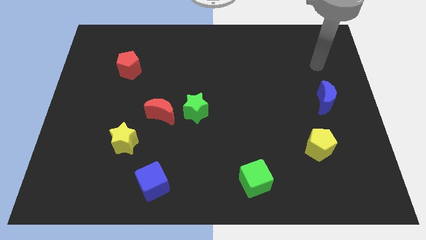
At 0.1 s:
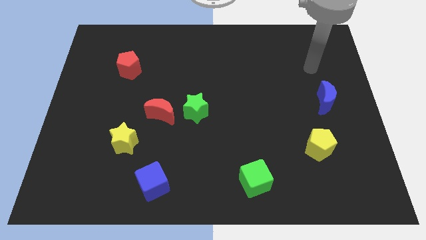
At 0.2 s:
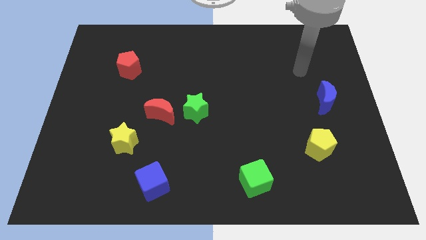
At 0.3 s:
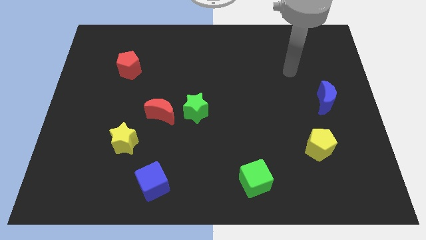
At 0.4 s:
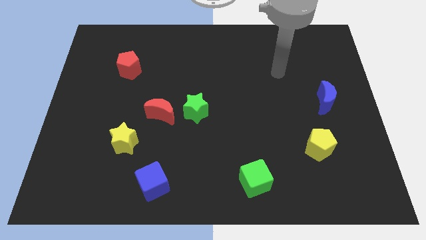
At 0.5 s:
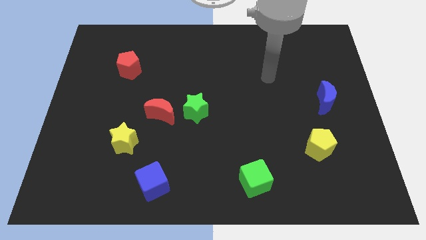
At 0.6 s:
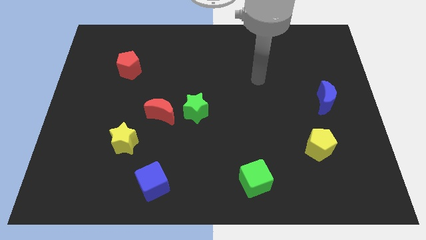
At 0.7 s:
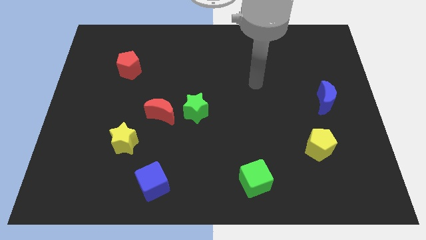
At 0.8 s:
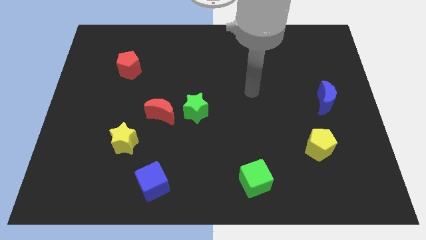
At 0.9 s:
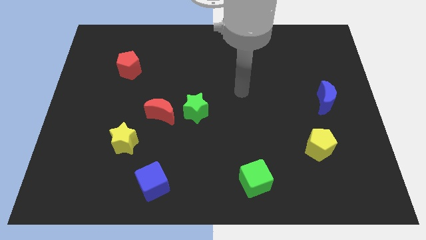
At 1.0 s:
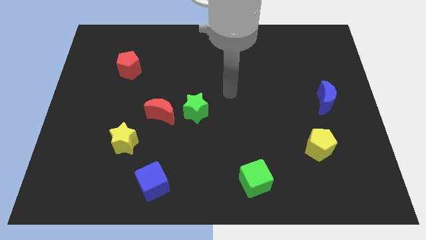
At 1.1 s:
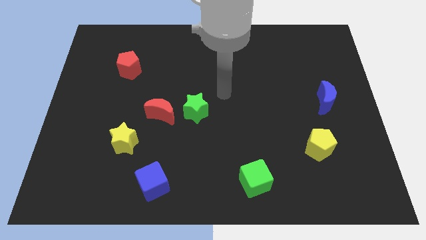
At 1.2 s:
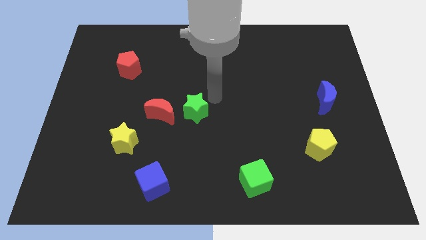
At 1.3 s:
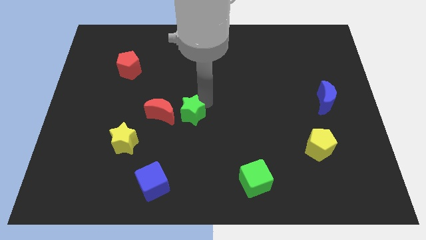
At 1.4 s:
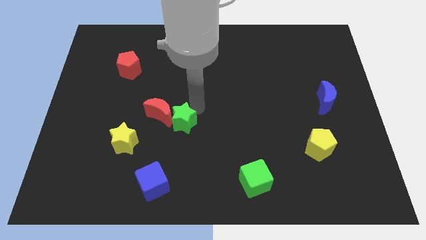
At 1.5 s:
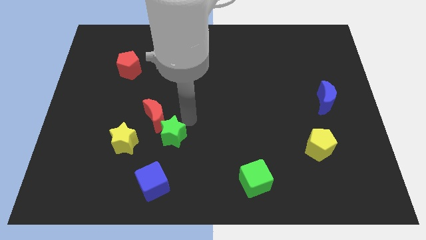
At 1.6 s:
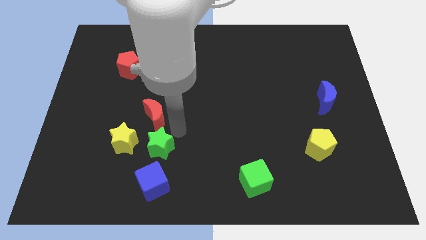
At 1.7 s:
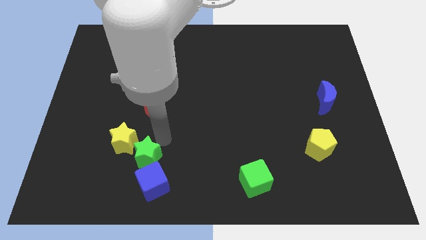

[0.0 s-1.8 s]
move the red moon away from the green star

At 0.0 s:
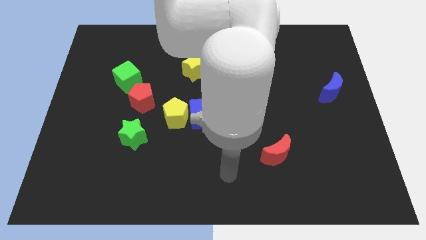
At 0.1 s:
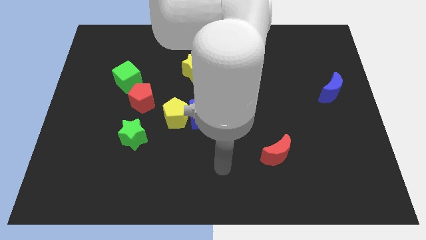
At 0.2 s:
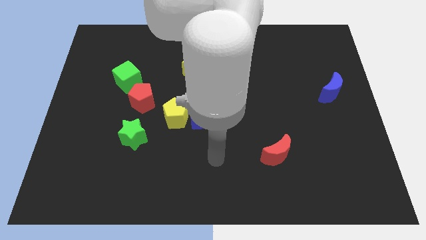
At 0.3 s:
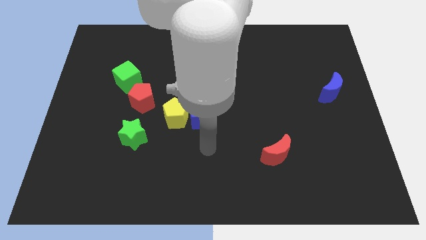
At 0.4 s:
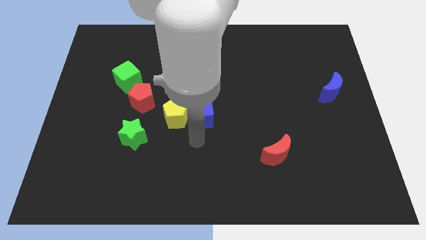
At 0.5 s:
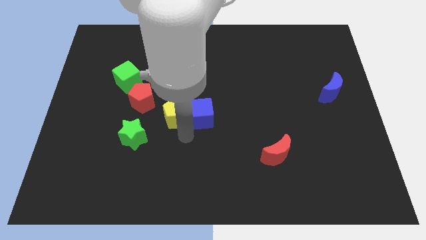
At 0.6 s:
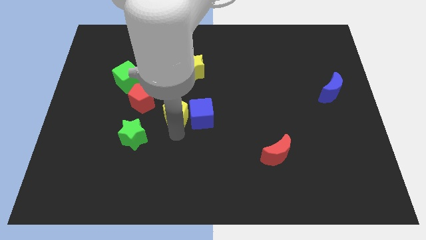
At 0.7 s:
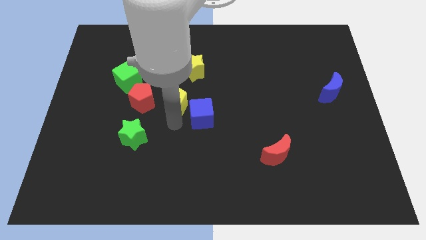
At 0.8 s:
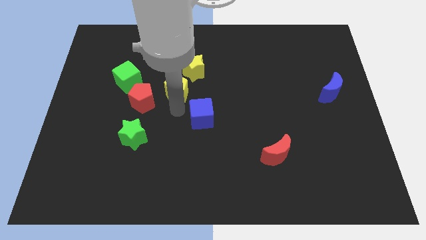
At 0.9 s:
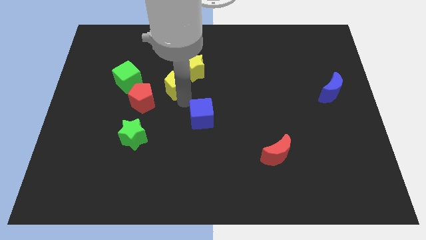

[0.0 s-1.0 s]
move the blue cube away from the yellow pentagon

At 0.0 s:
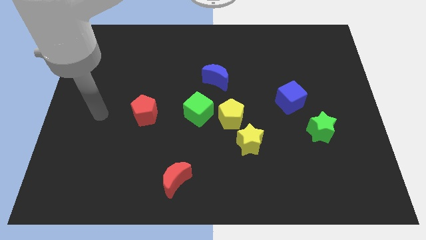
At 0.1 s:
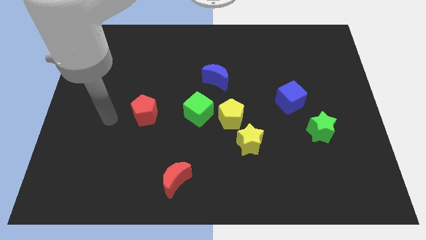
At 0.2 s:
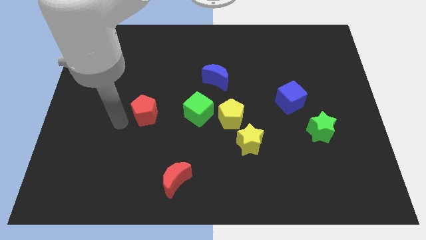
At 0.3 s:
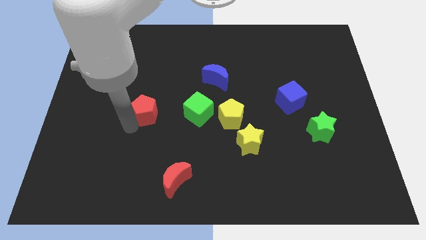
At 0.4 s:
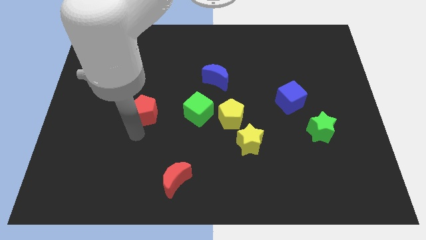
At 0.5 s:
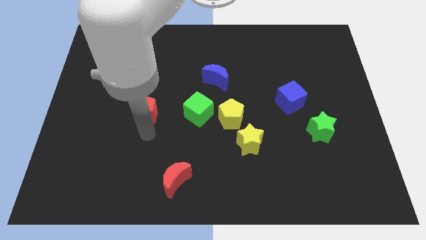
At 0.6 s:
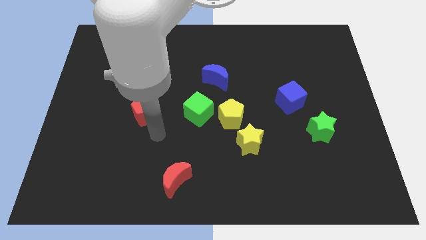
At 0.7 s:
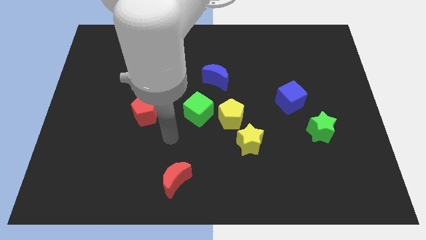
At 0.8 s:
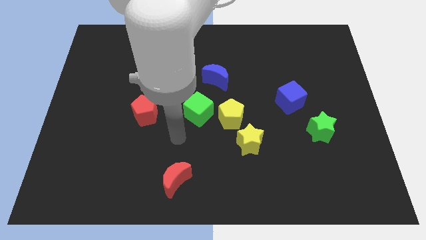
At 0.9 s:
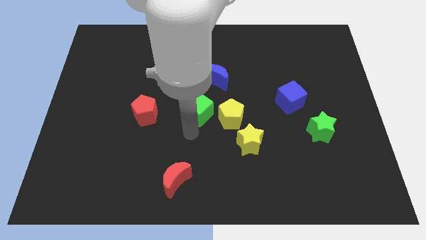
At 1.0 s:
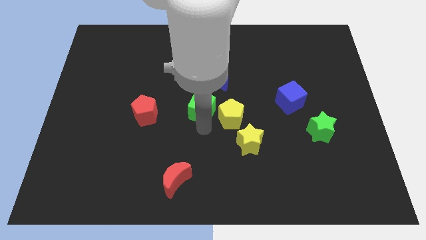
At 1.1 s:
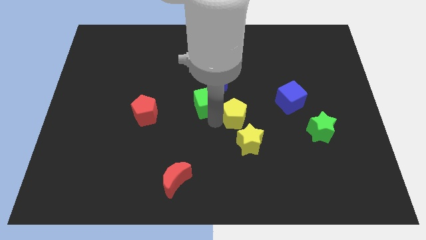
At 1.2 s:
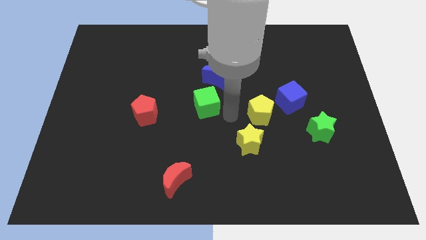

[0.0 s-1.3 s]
pull the green cube apart from the yellow pentagon

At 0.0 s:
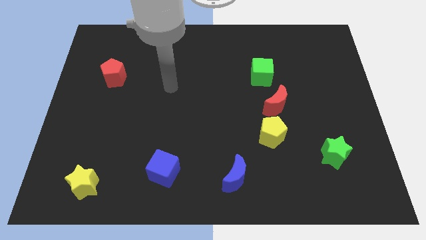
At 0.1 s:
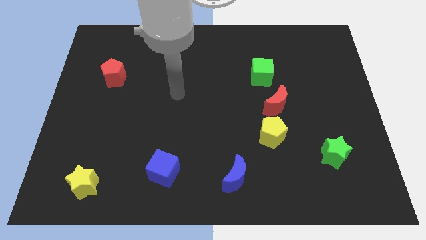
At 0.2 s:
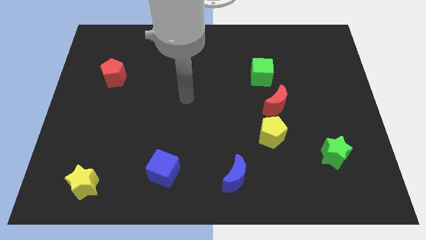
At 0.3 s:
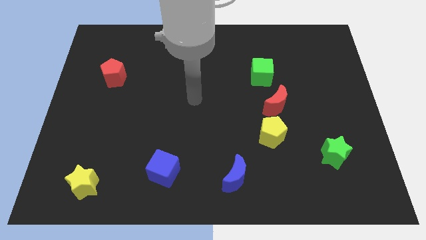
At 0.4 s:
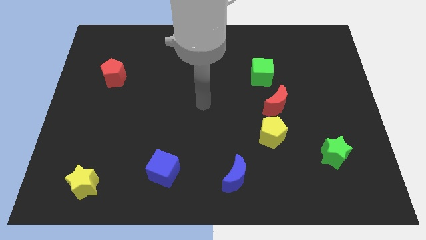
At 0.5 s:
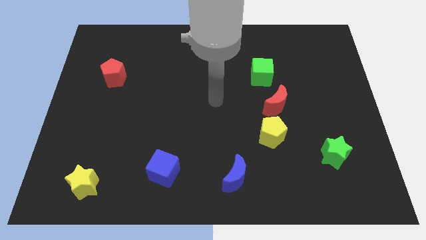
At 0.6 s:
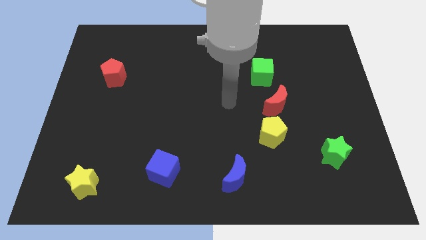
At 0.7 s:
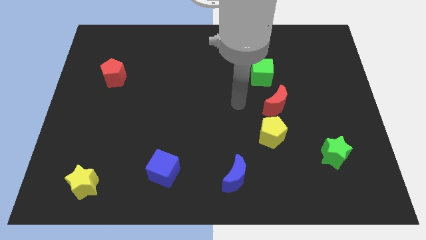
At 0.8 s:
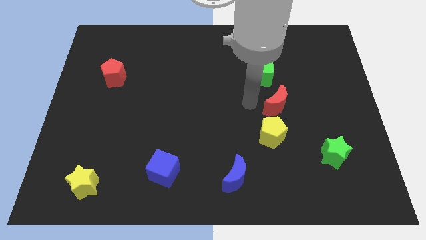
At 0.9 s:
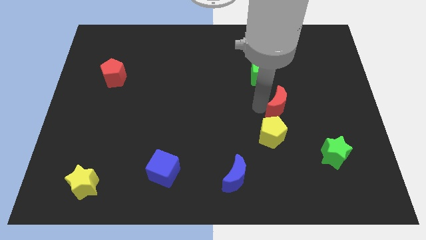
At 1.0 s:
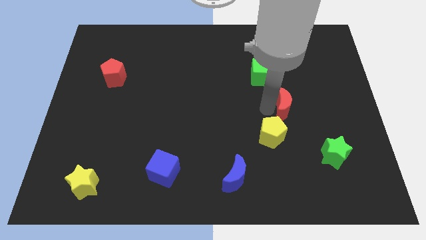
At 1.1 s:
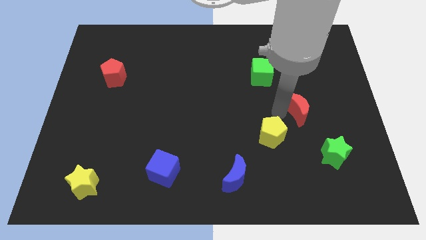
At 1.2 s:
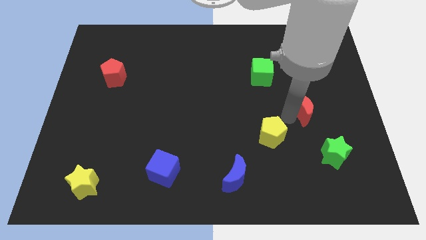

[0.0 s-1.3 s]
move the yellow pentagon away from the red moon

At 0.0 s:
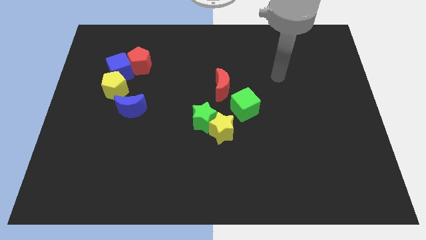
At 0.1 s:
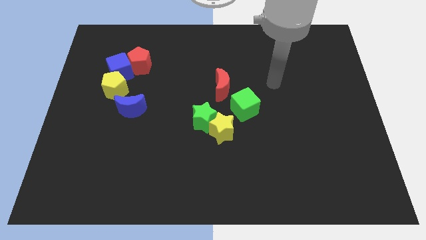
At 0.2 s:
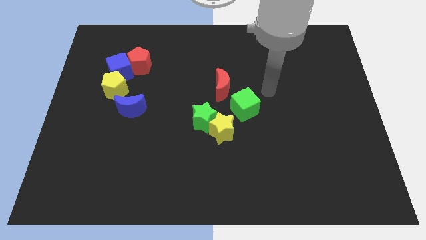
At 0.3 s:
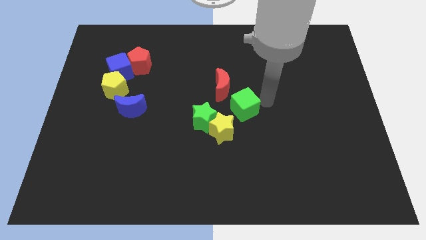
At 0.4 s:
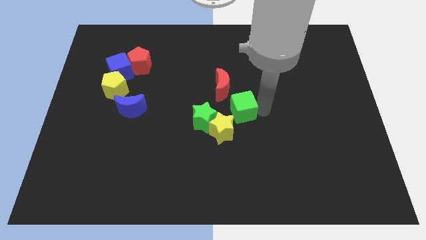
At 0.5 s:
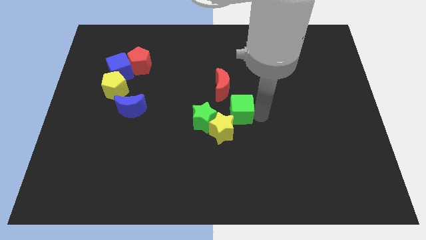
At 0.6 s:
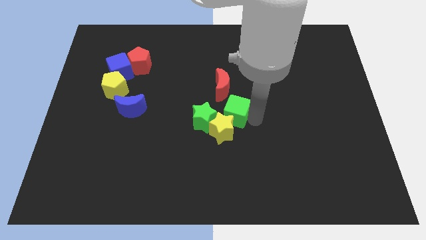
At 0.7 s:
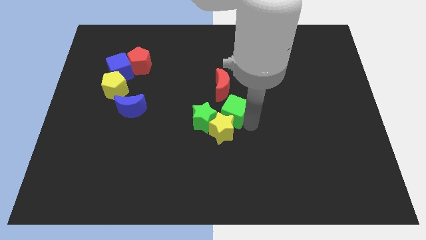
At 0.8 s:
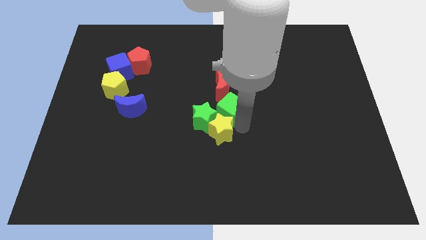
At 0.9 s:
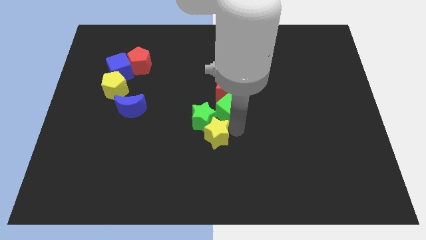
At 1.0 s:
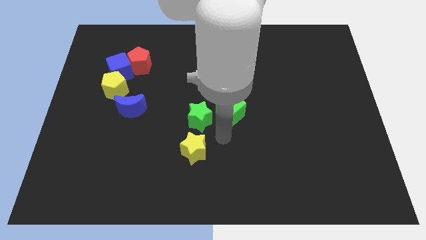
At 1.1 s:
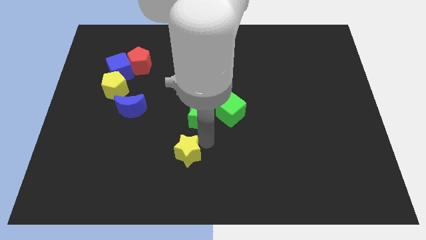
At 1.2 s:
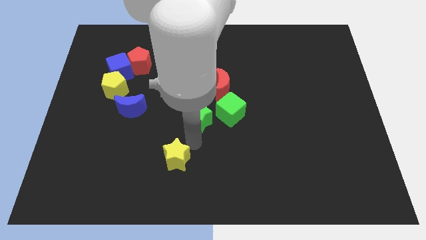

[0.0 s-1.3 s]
move the green star away from the yellow star

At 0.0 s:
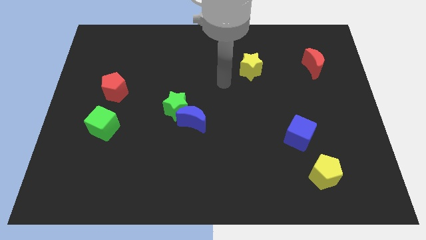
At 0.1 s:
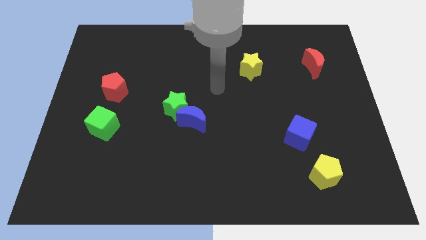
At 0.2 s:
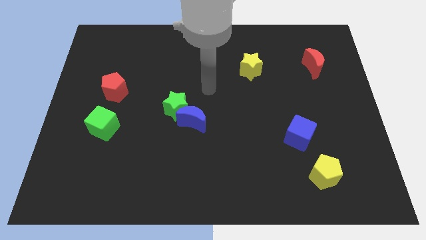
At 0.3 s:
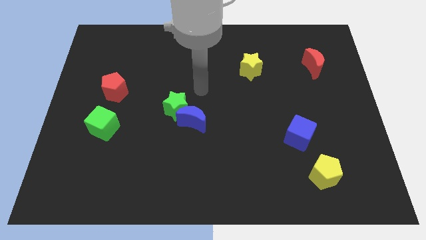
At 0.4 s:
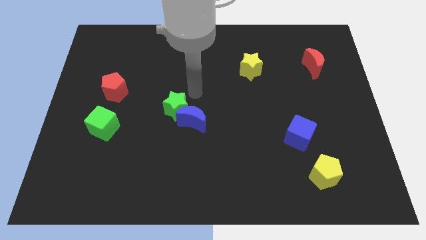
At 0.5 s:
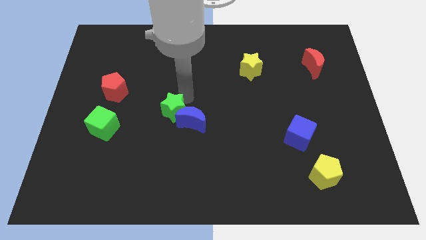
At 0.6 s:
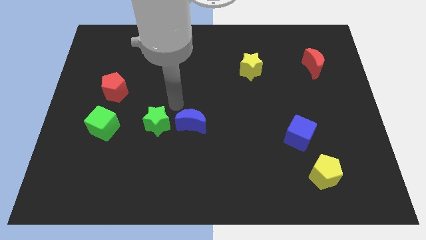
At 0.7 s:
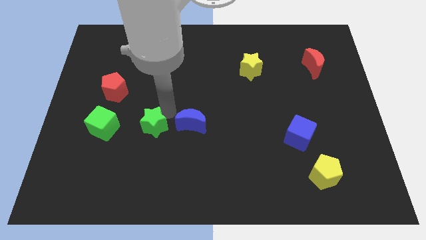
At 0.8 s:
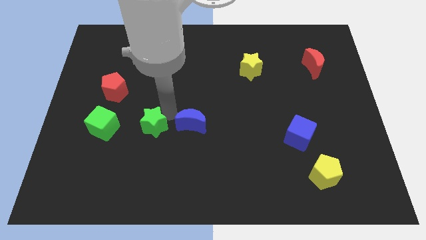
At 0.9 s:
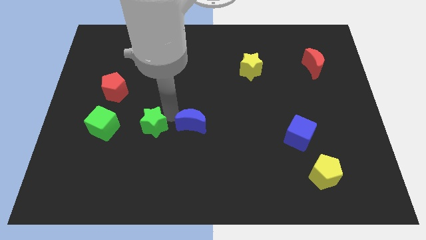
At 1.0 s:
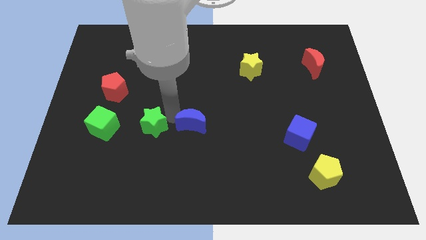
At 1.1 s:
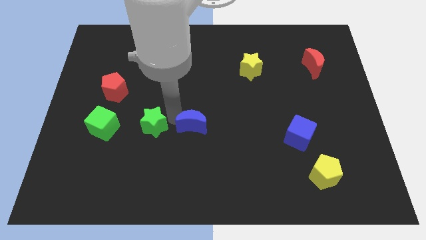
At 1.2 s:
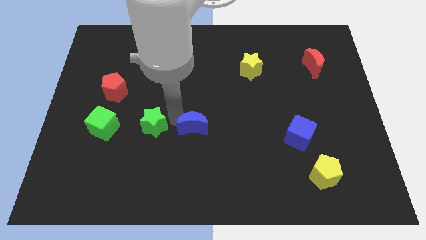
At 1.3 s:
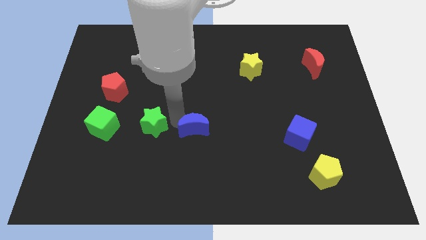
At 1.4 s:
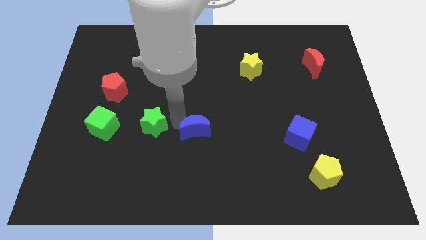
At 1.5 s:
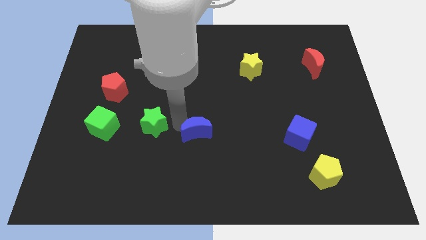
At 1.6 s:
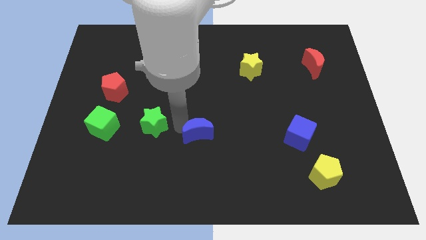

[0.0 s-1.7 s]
pull the blue moon apart from the green star

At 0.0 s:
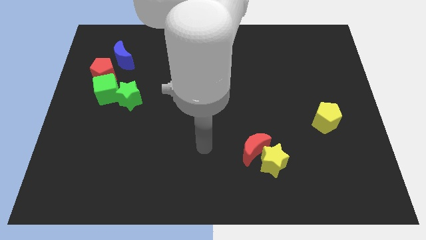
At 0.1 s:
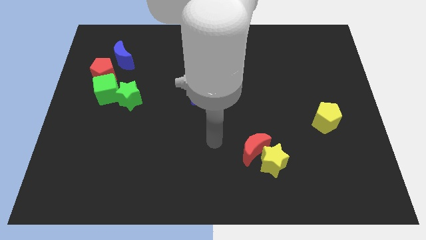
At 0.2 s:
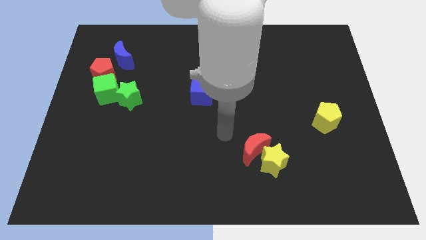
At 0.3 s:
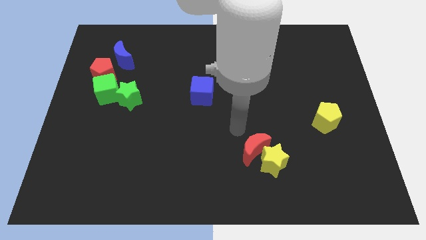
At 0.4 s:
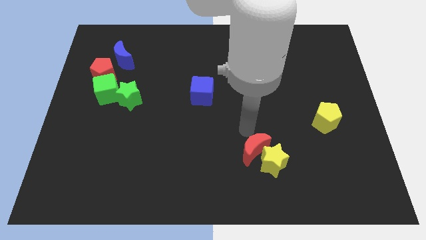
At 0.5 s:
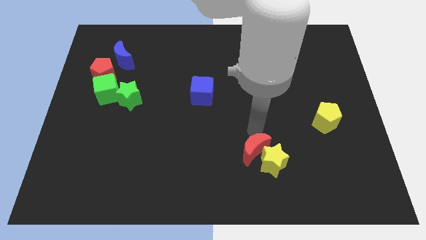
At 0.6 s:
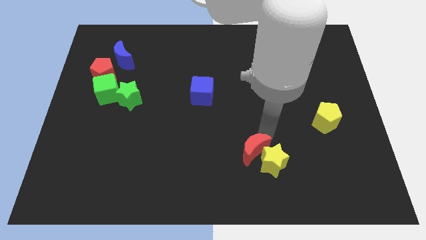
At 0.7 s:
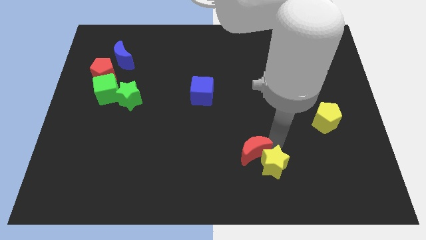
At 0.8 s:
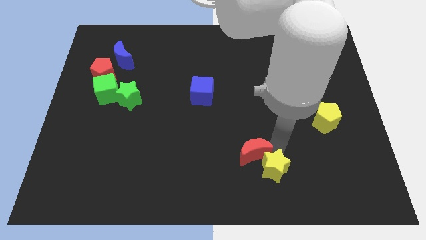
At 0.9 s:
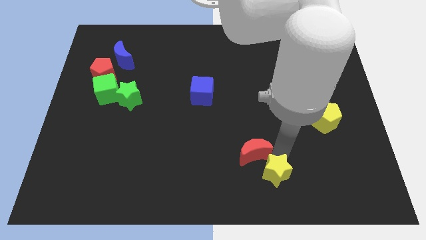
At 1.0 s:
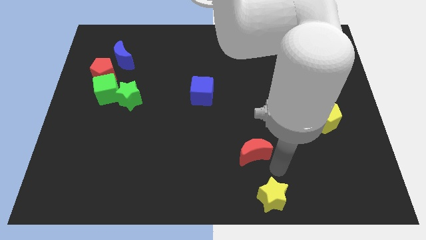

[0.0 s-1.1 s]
pull the red moon apart from the yellow star

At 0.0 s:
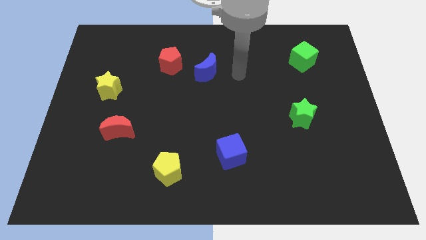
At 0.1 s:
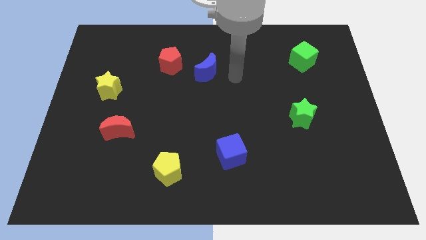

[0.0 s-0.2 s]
separate the red pentagon from the blue moon
